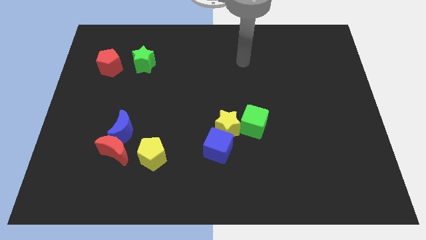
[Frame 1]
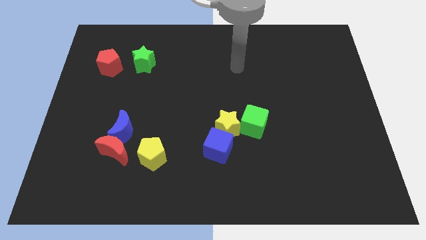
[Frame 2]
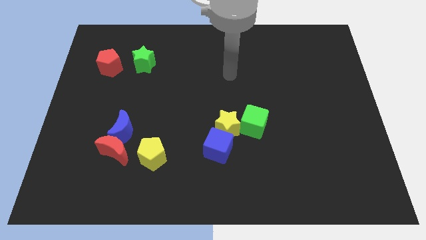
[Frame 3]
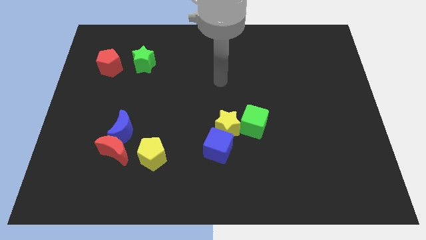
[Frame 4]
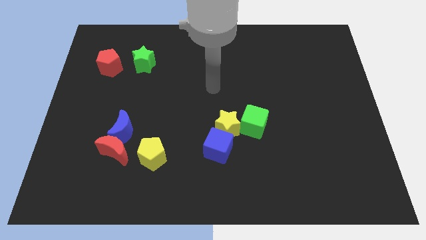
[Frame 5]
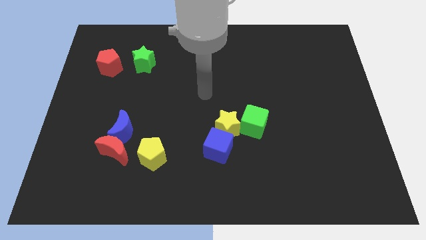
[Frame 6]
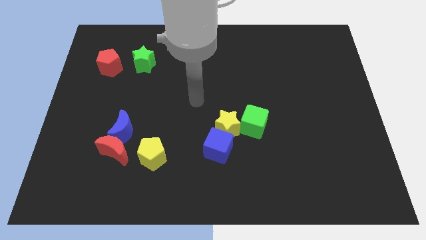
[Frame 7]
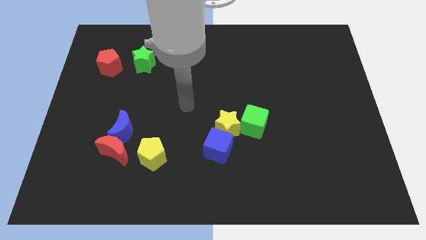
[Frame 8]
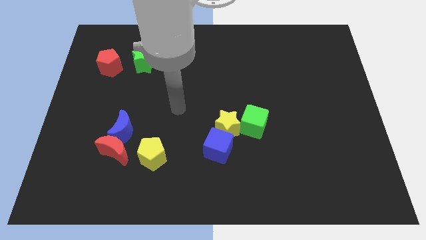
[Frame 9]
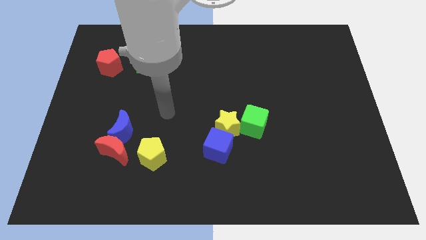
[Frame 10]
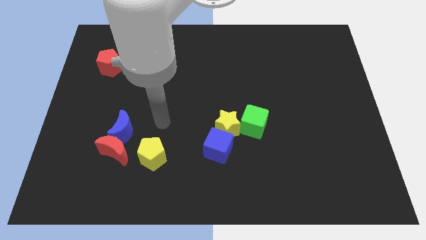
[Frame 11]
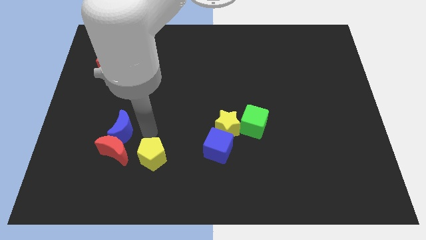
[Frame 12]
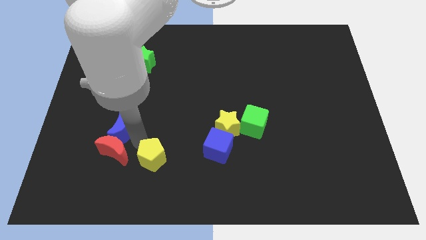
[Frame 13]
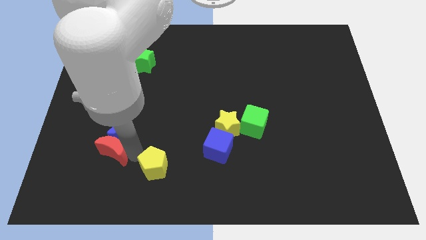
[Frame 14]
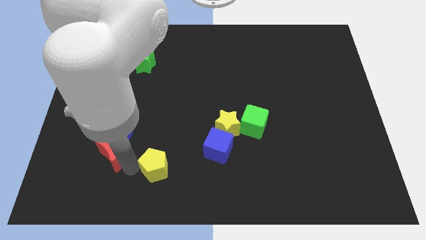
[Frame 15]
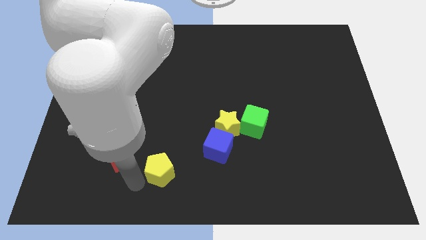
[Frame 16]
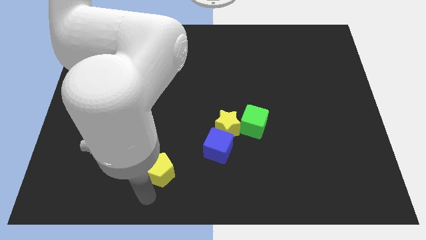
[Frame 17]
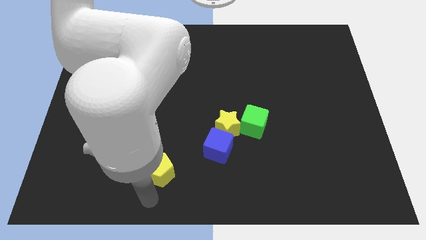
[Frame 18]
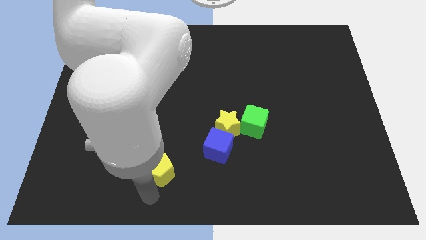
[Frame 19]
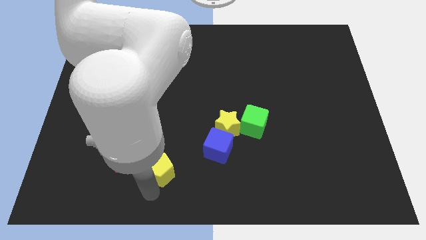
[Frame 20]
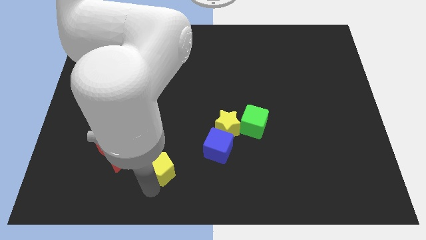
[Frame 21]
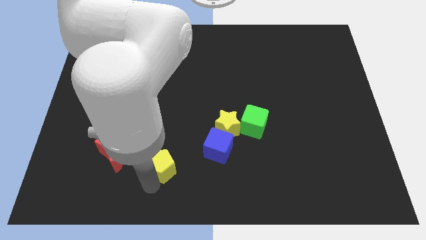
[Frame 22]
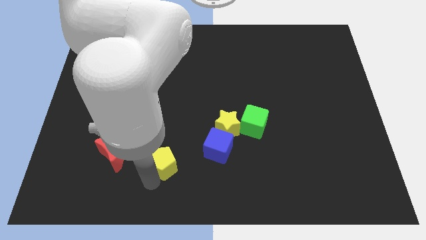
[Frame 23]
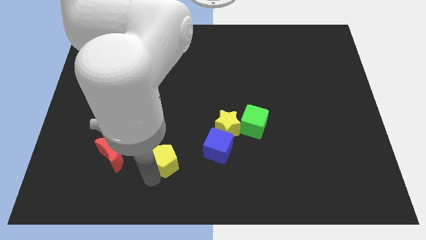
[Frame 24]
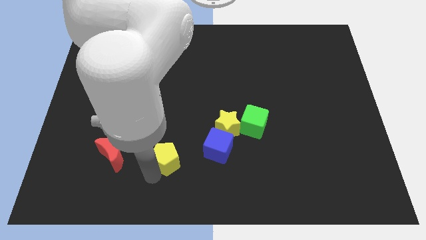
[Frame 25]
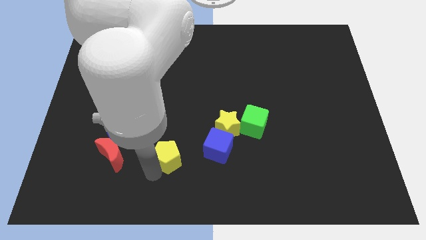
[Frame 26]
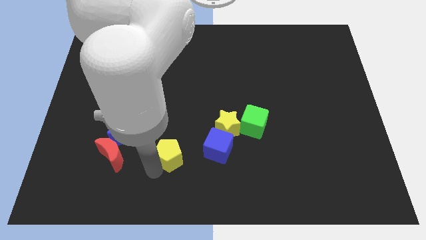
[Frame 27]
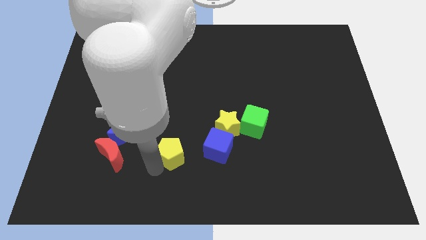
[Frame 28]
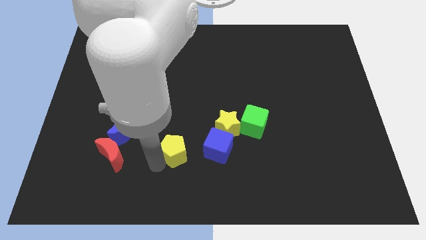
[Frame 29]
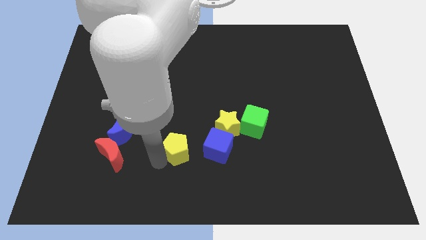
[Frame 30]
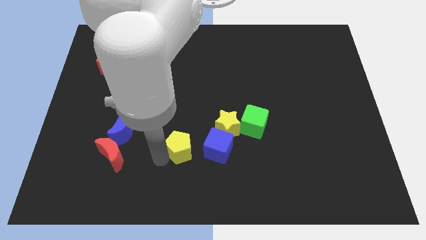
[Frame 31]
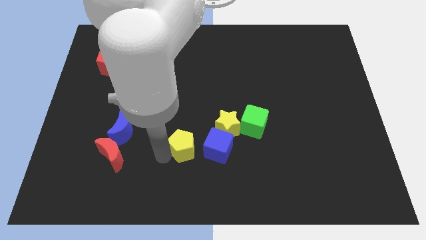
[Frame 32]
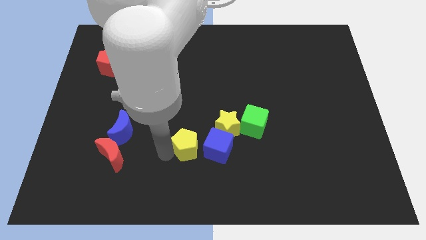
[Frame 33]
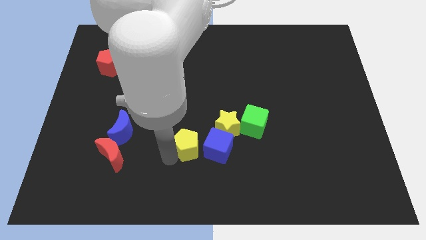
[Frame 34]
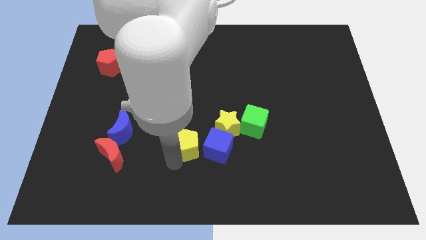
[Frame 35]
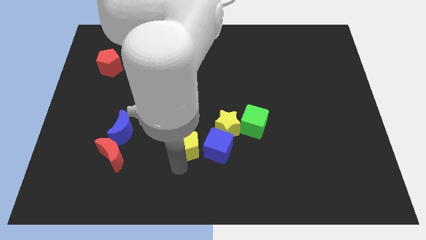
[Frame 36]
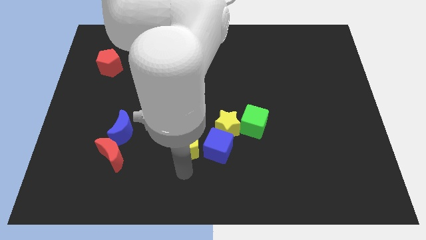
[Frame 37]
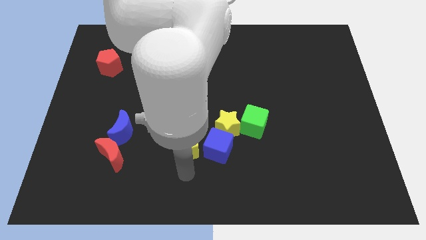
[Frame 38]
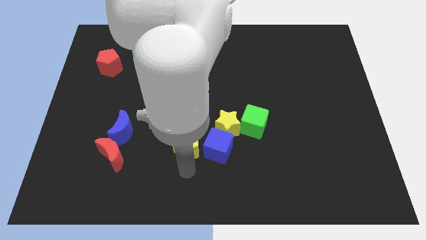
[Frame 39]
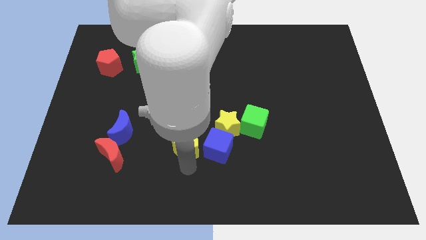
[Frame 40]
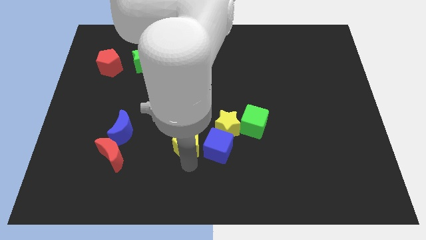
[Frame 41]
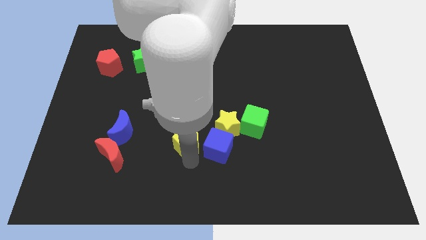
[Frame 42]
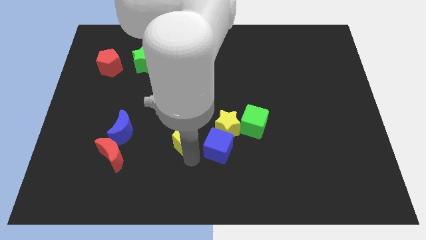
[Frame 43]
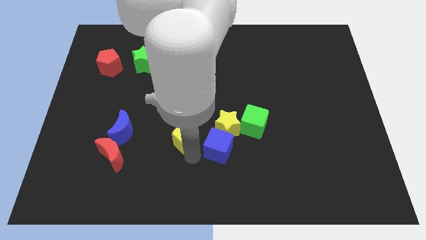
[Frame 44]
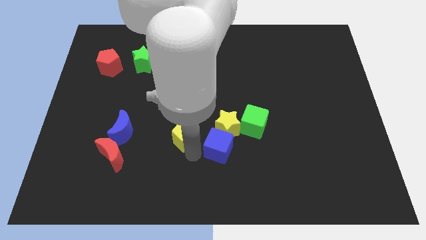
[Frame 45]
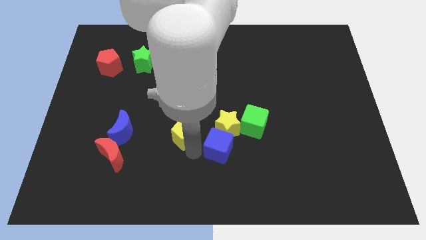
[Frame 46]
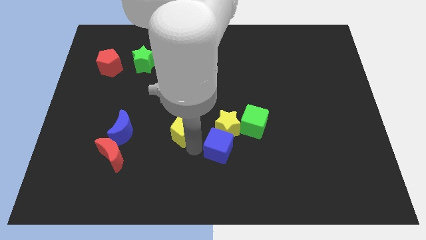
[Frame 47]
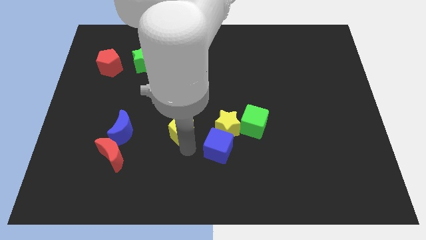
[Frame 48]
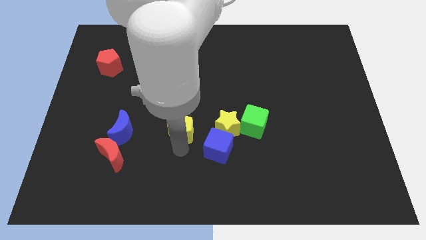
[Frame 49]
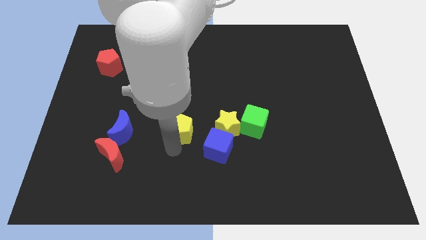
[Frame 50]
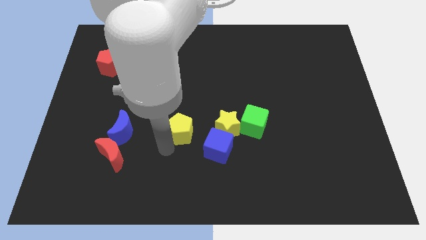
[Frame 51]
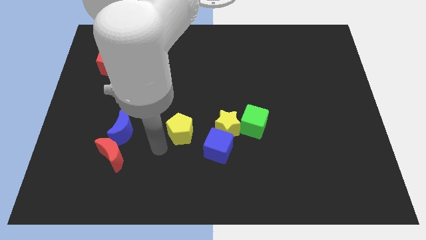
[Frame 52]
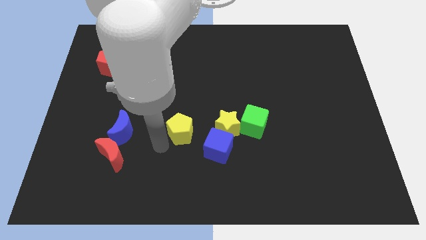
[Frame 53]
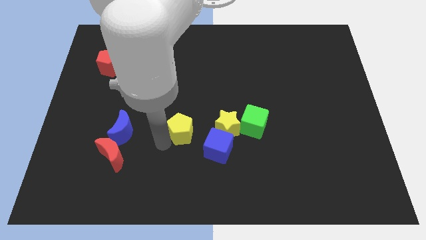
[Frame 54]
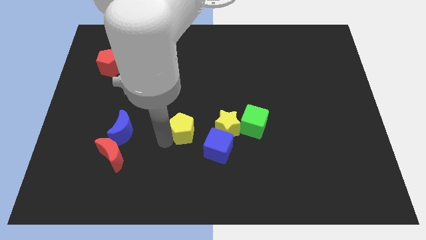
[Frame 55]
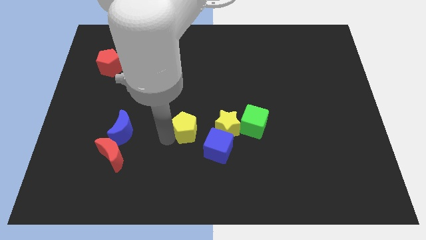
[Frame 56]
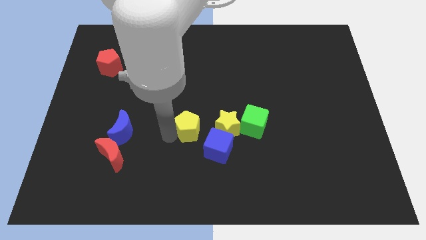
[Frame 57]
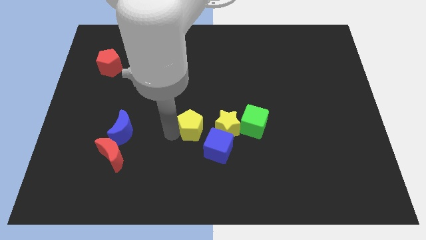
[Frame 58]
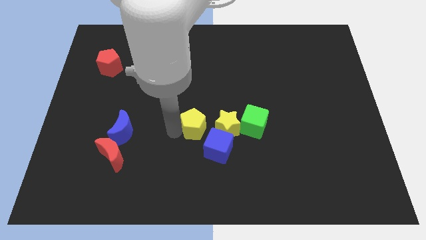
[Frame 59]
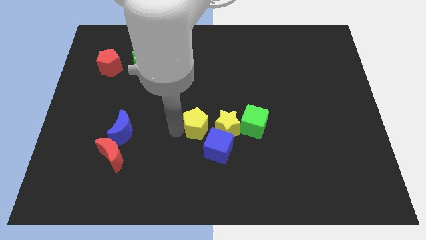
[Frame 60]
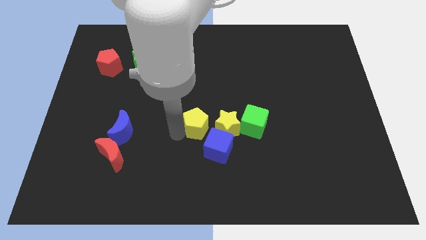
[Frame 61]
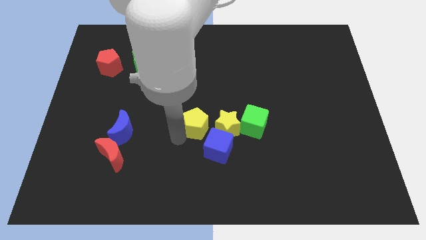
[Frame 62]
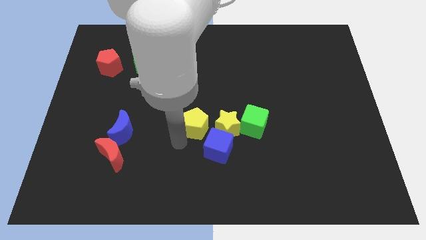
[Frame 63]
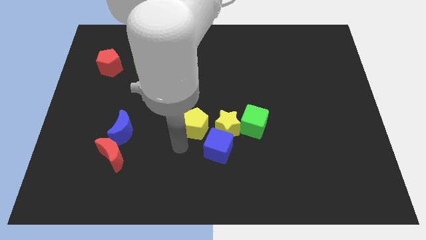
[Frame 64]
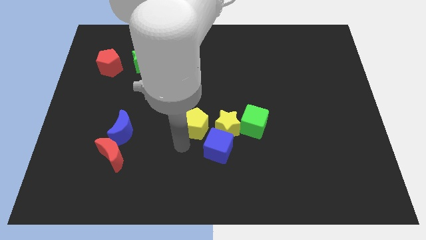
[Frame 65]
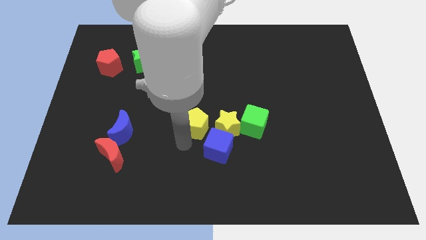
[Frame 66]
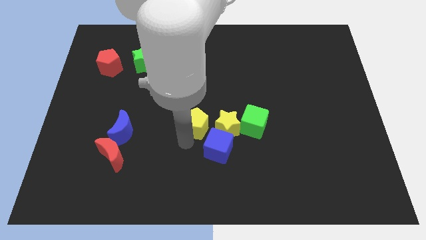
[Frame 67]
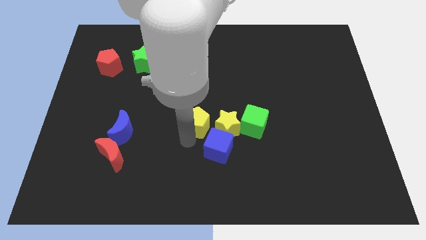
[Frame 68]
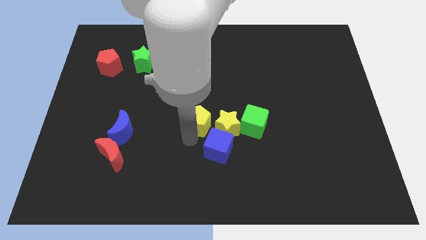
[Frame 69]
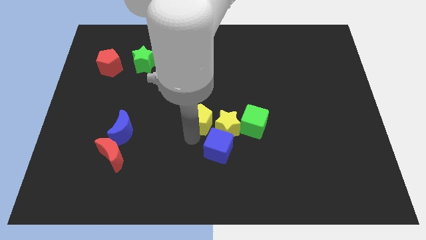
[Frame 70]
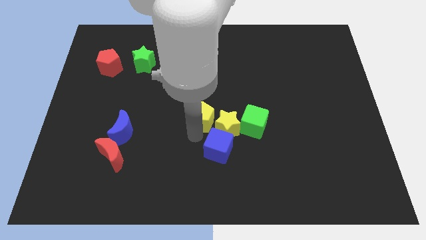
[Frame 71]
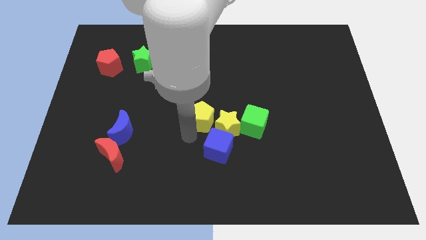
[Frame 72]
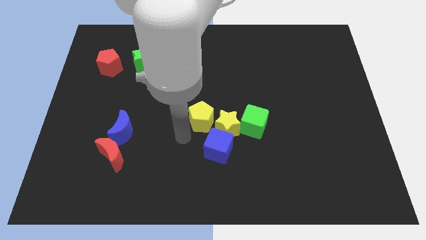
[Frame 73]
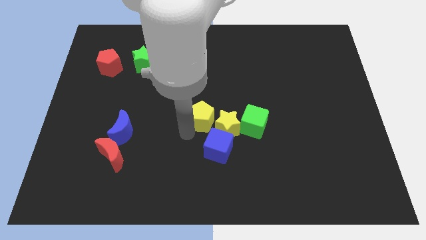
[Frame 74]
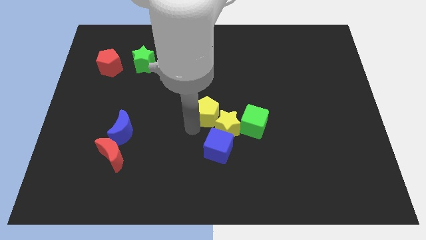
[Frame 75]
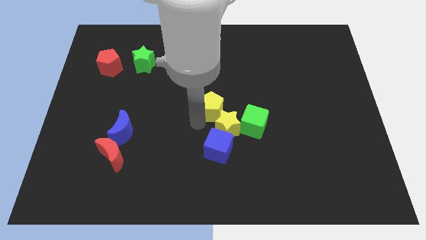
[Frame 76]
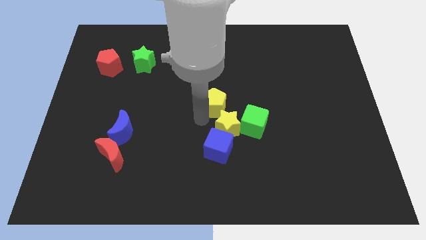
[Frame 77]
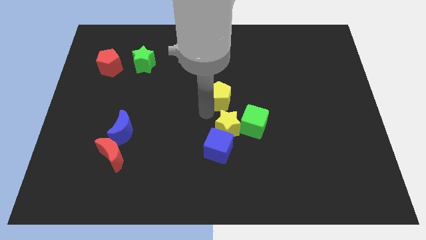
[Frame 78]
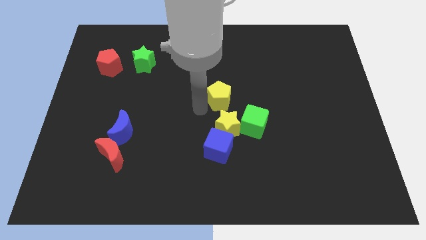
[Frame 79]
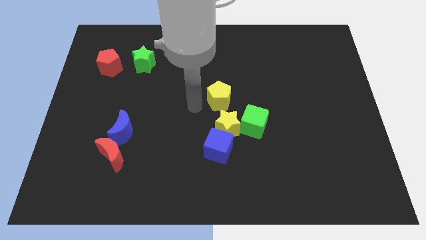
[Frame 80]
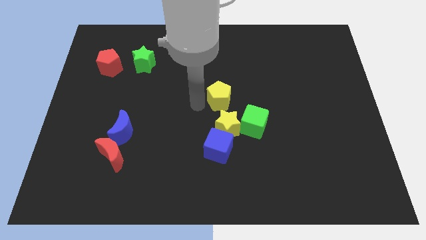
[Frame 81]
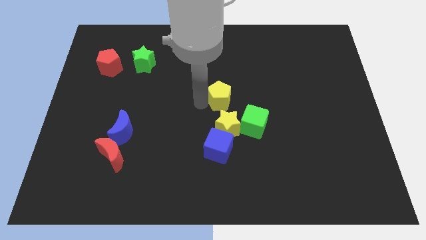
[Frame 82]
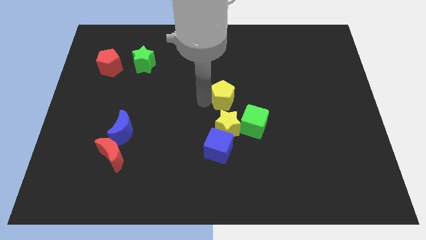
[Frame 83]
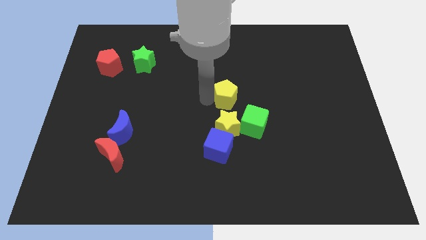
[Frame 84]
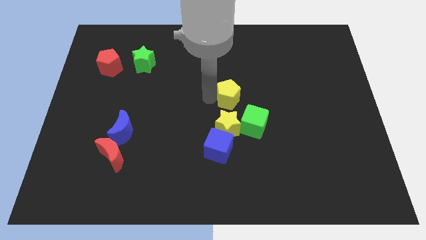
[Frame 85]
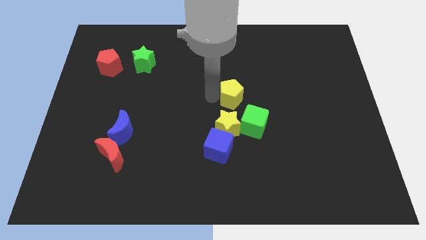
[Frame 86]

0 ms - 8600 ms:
slide the yellow pentagon to the top of the green cube
